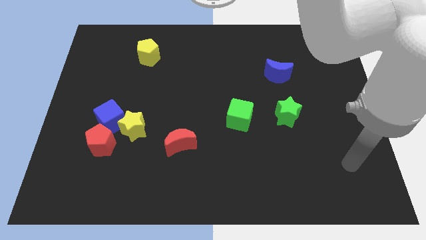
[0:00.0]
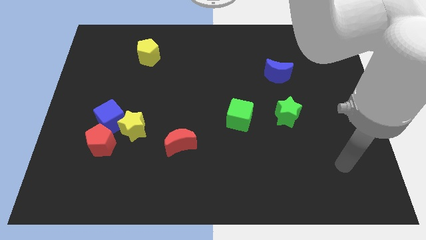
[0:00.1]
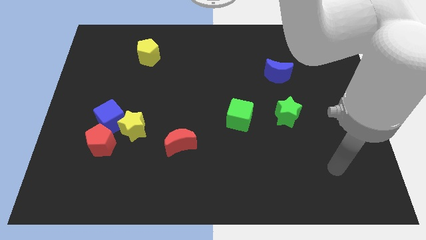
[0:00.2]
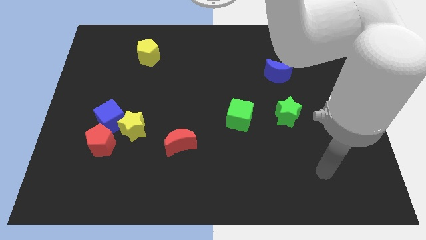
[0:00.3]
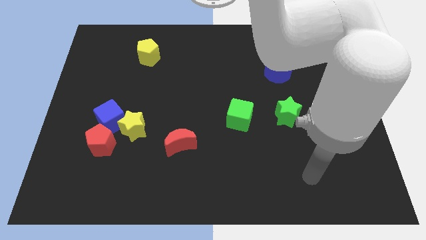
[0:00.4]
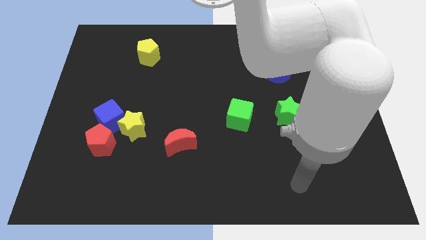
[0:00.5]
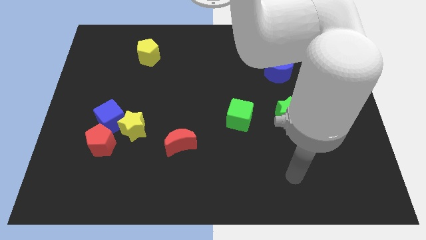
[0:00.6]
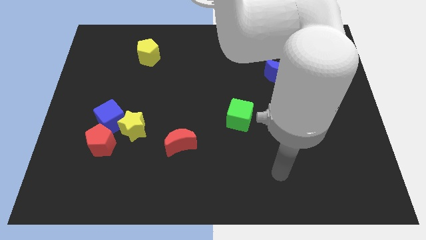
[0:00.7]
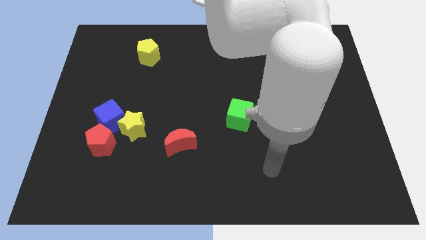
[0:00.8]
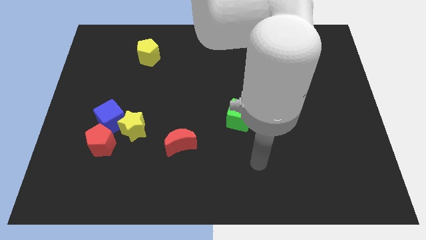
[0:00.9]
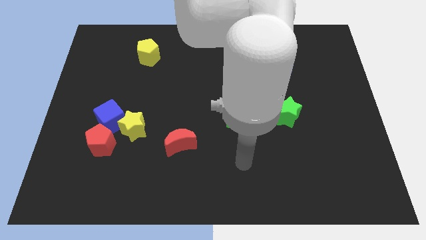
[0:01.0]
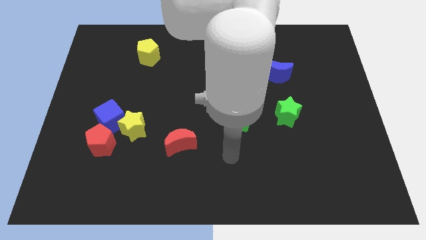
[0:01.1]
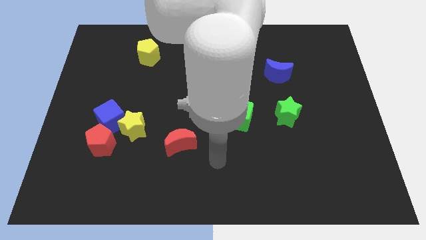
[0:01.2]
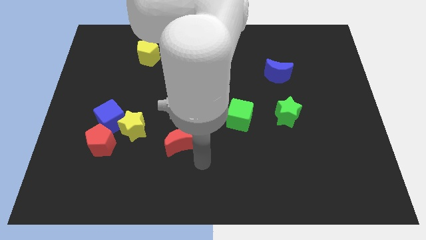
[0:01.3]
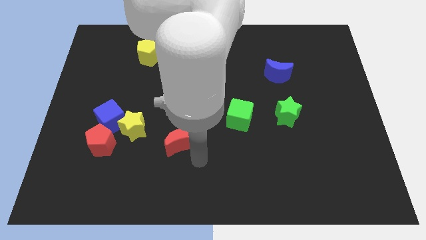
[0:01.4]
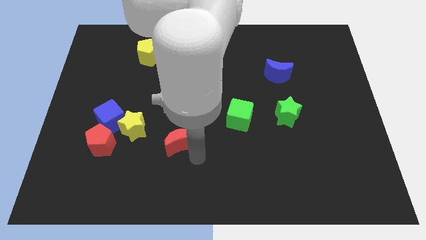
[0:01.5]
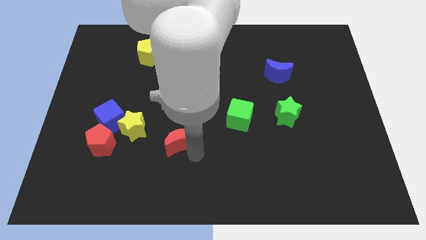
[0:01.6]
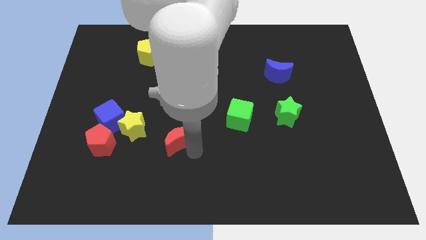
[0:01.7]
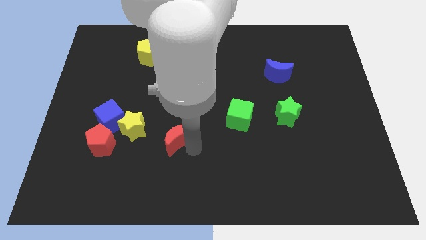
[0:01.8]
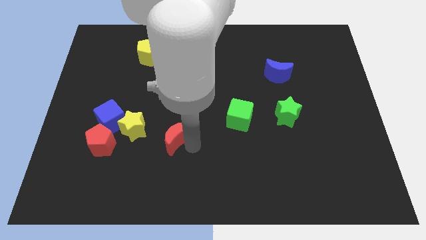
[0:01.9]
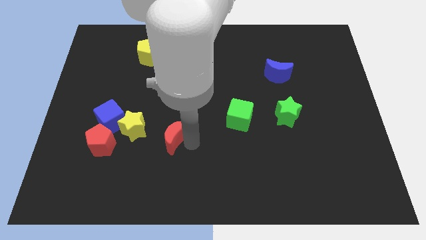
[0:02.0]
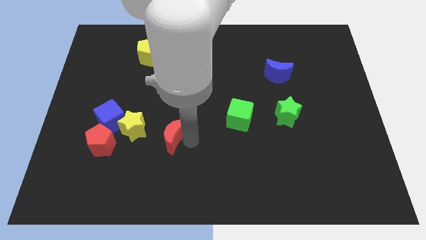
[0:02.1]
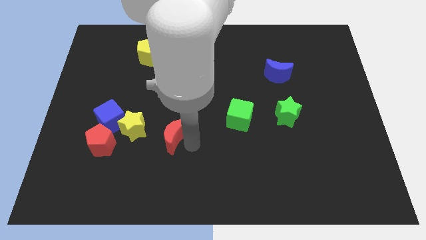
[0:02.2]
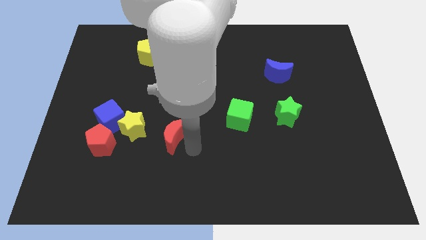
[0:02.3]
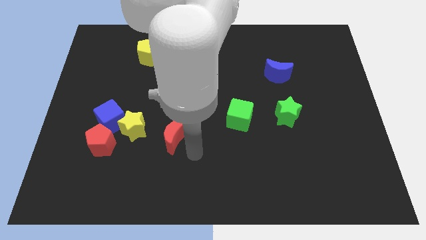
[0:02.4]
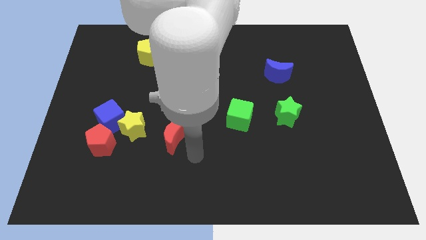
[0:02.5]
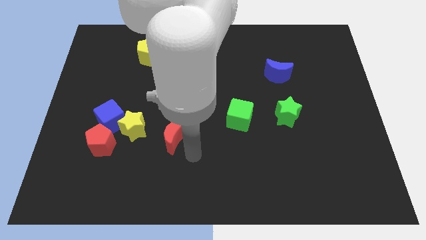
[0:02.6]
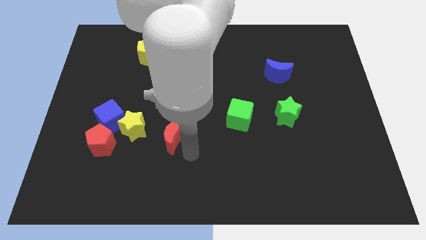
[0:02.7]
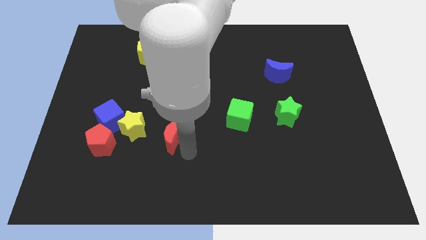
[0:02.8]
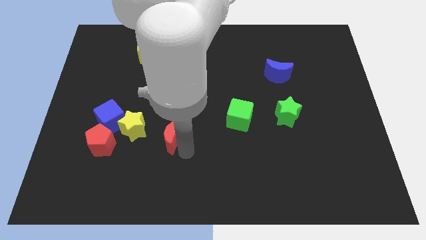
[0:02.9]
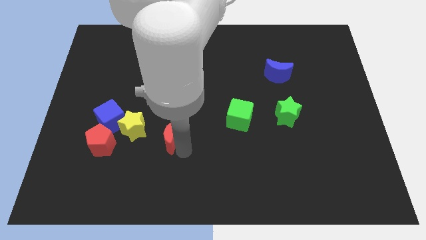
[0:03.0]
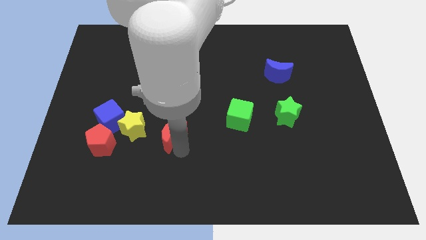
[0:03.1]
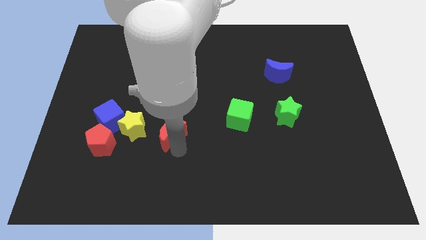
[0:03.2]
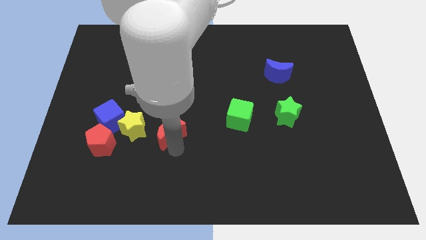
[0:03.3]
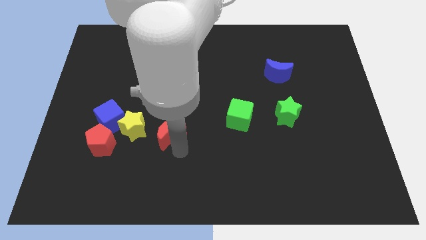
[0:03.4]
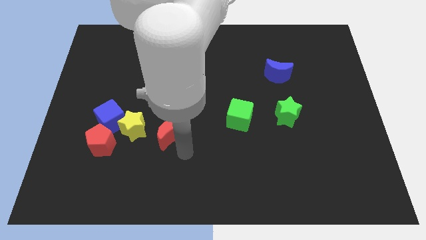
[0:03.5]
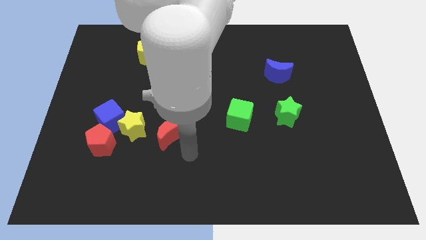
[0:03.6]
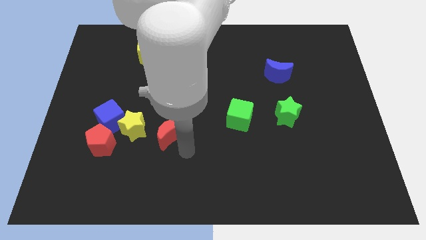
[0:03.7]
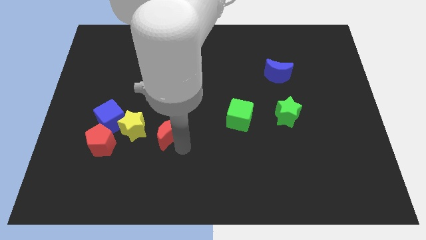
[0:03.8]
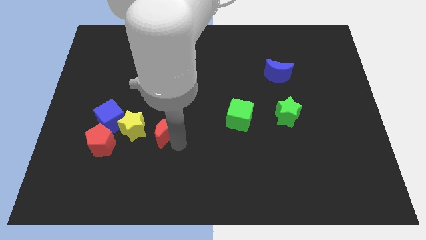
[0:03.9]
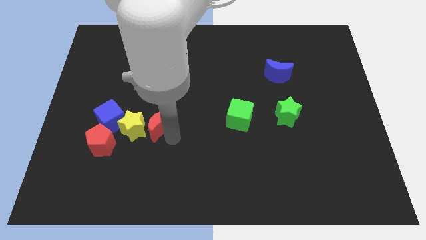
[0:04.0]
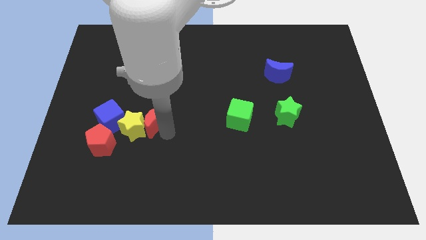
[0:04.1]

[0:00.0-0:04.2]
slide the red moon upwards and then left somewhat

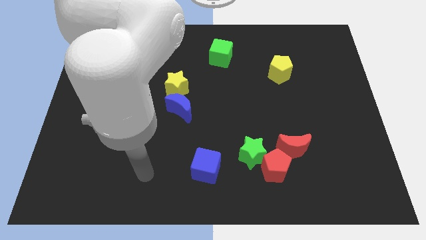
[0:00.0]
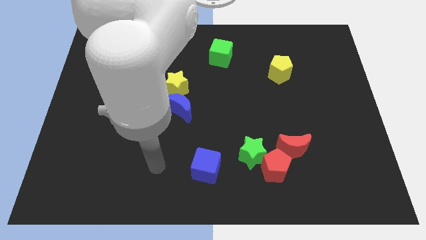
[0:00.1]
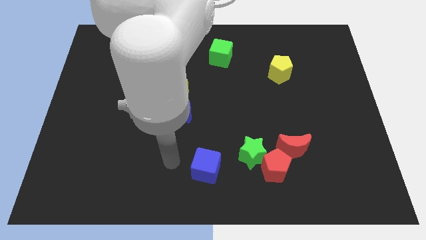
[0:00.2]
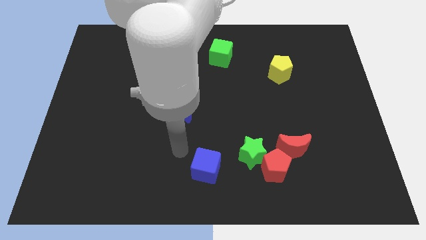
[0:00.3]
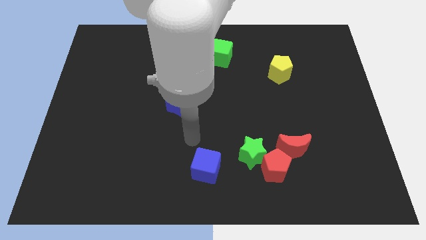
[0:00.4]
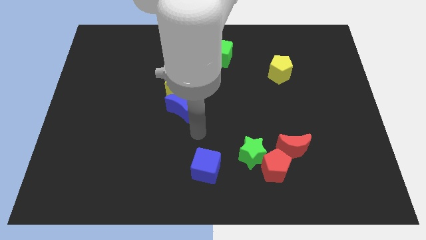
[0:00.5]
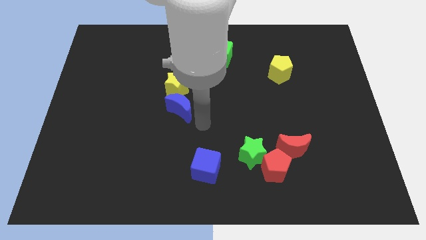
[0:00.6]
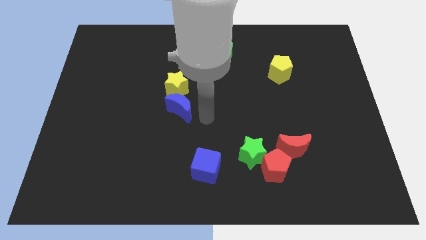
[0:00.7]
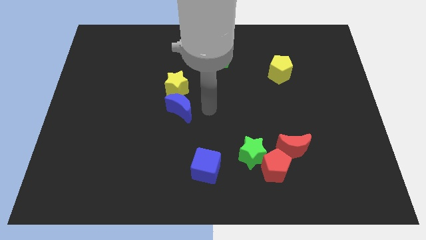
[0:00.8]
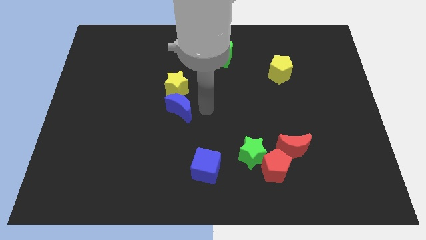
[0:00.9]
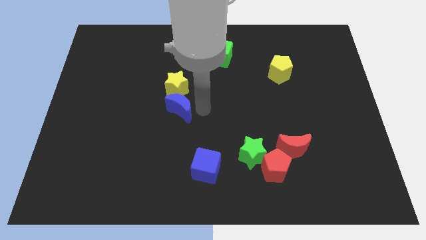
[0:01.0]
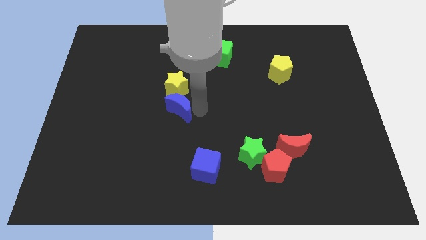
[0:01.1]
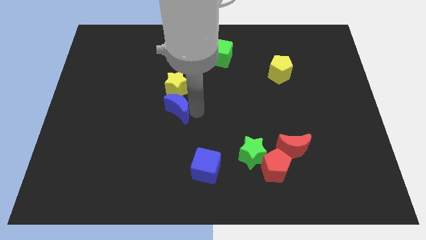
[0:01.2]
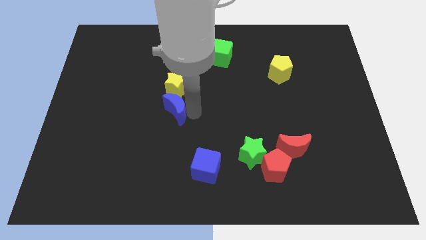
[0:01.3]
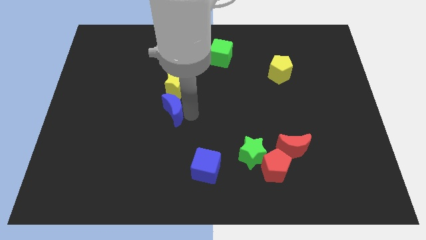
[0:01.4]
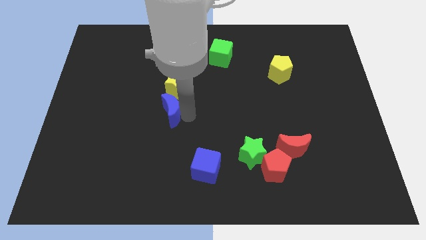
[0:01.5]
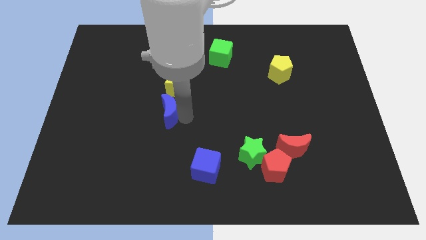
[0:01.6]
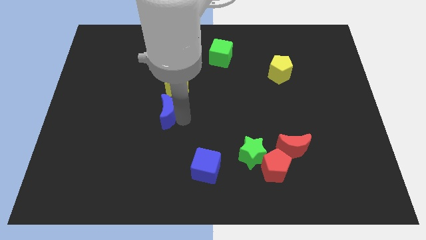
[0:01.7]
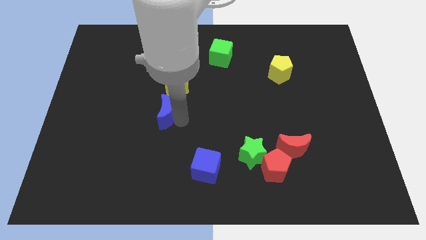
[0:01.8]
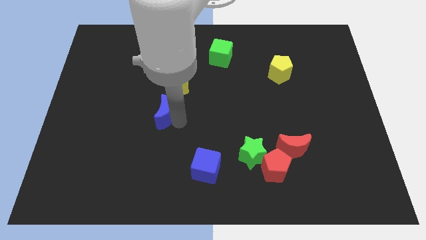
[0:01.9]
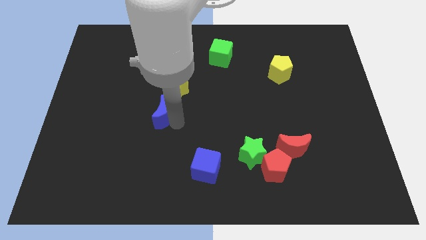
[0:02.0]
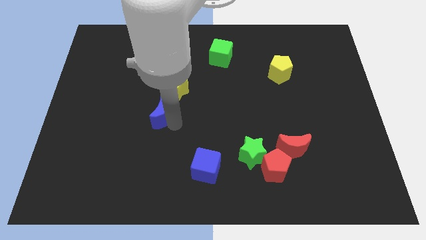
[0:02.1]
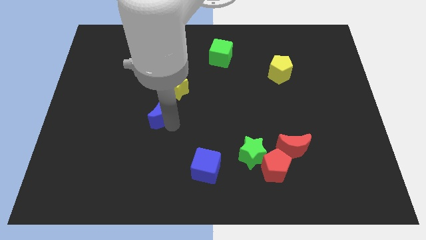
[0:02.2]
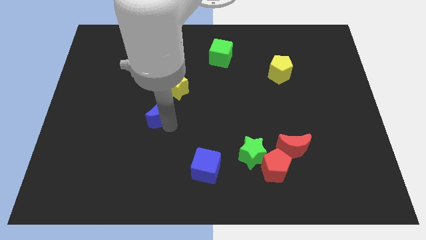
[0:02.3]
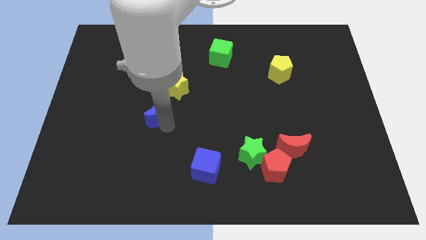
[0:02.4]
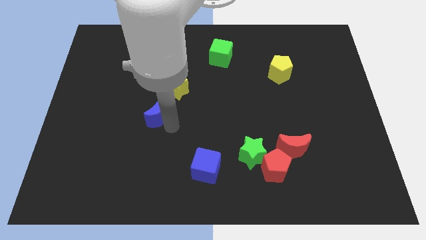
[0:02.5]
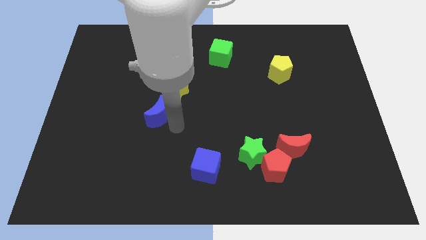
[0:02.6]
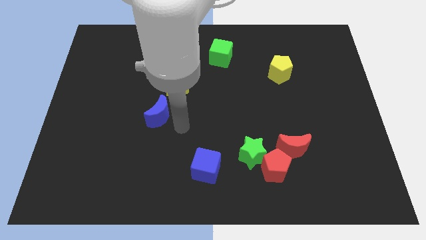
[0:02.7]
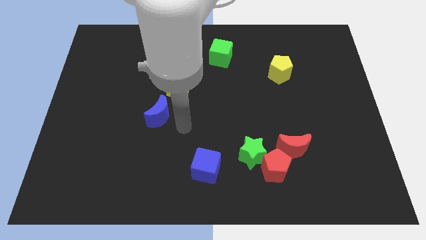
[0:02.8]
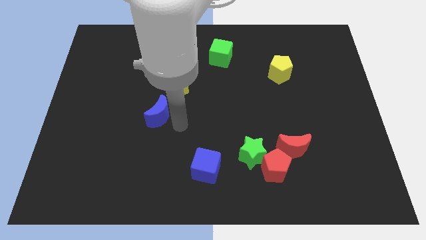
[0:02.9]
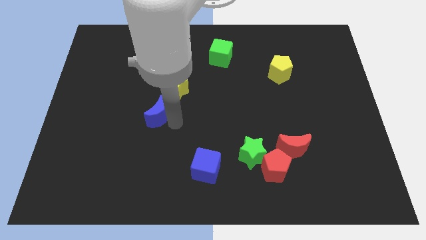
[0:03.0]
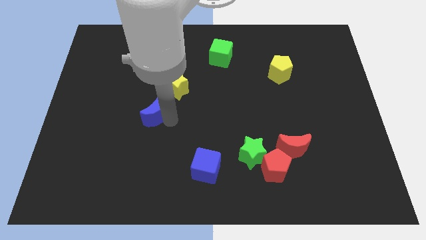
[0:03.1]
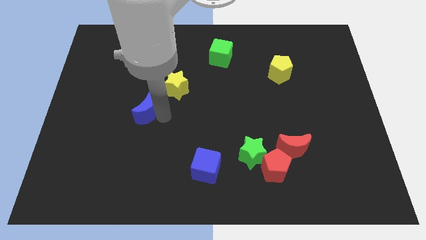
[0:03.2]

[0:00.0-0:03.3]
slightly push the blue moon left

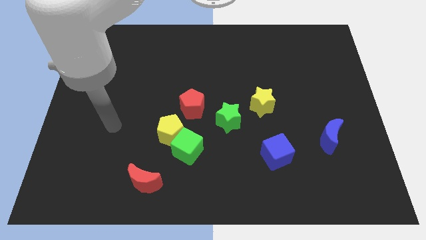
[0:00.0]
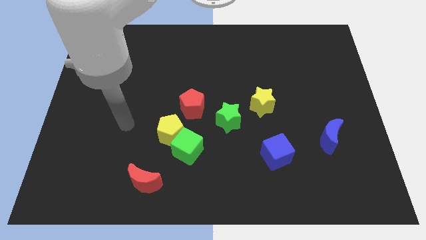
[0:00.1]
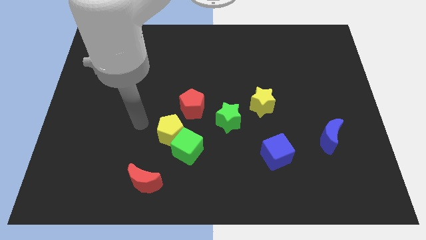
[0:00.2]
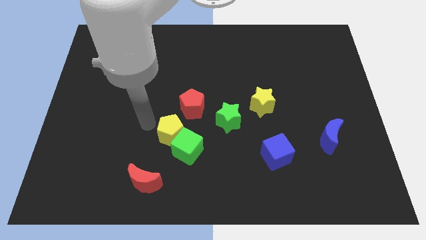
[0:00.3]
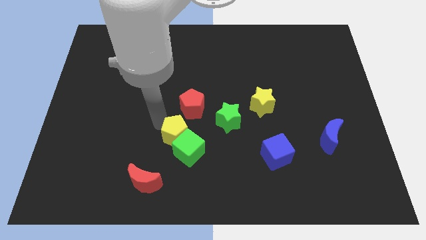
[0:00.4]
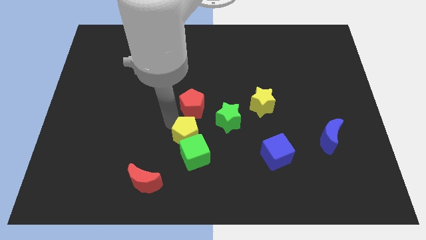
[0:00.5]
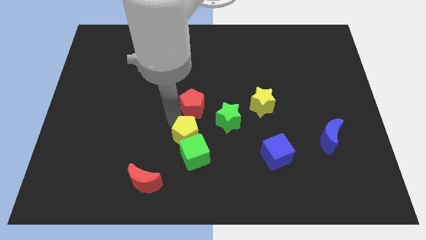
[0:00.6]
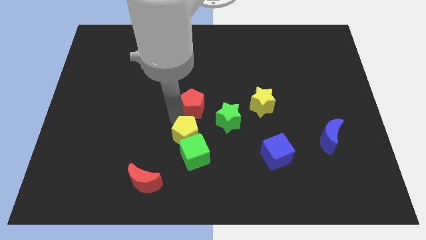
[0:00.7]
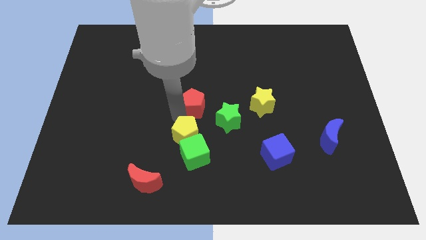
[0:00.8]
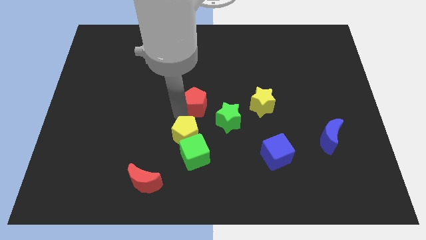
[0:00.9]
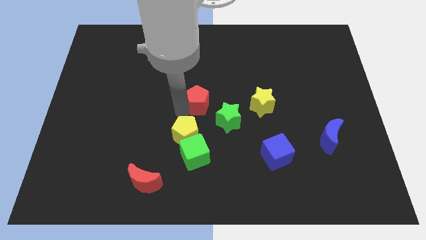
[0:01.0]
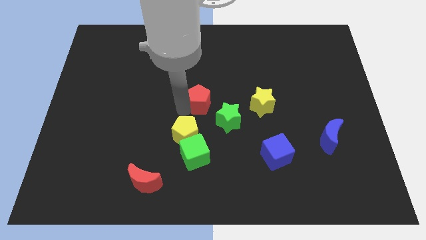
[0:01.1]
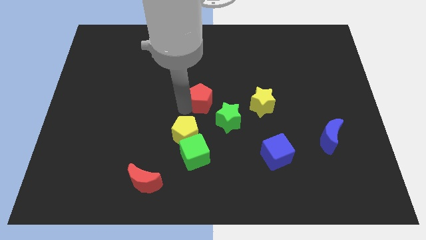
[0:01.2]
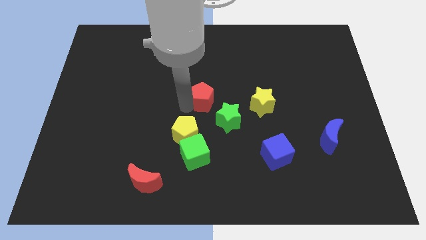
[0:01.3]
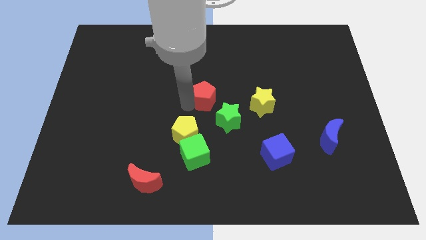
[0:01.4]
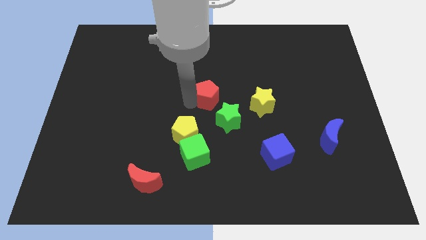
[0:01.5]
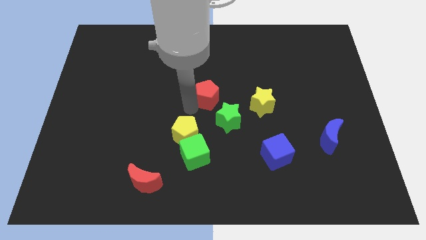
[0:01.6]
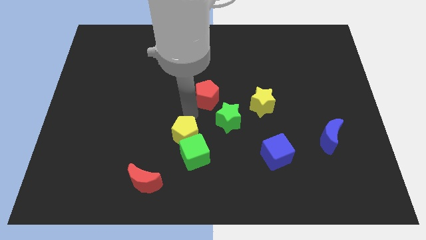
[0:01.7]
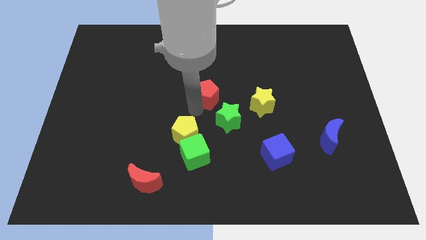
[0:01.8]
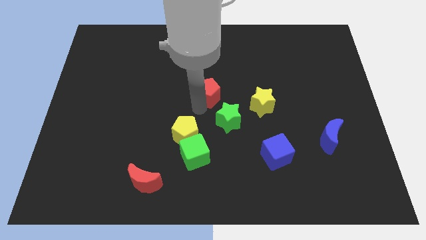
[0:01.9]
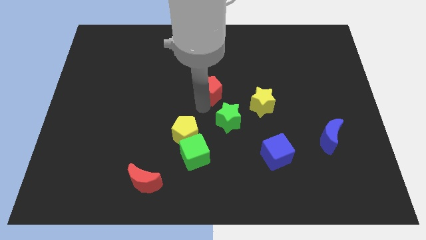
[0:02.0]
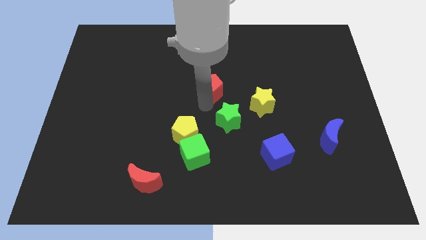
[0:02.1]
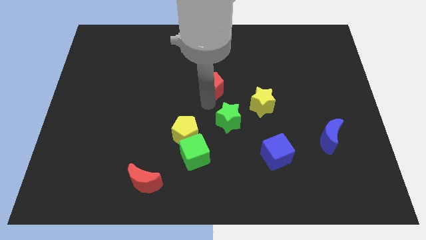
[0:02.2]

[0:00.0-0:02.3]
push the red pentagon up and right diagonally somewhat
